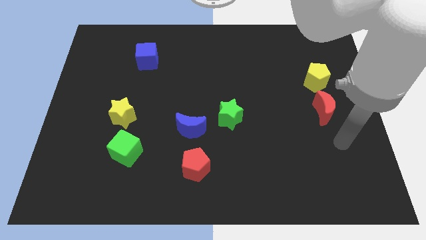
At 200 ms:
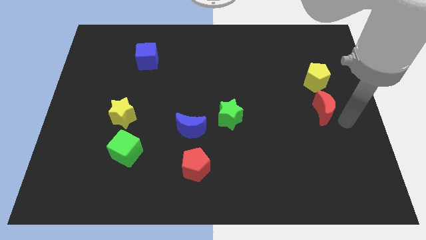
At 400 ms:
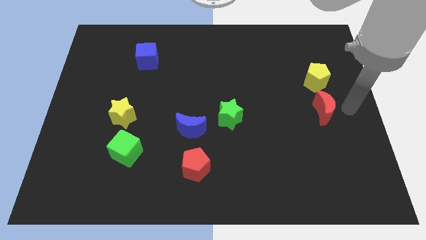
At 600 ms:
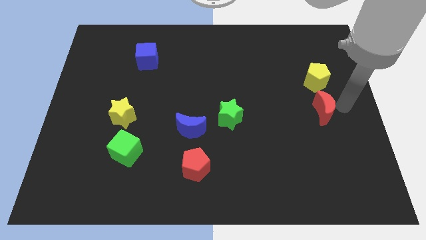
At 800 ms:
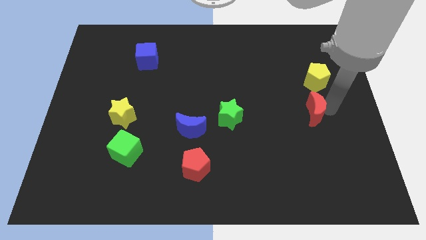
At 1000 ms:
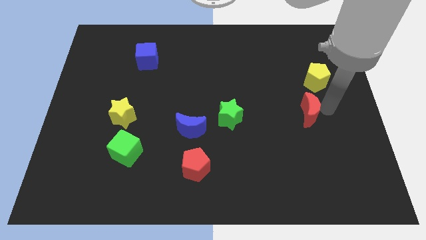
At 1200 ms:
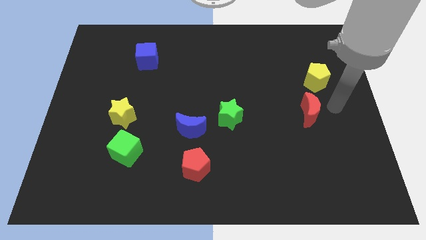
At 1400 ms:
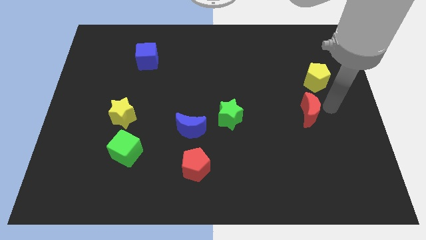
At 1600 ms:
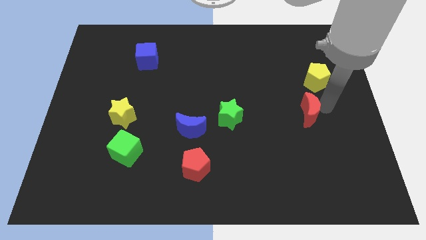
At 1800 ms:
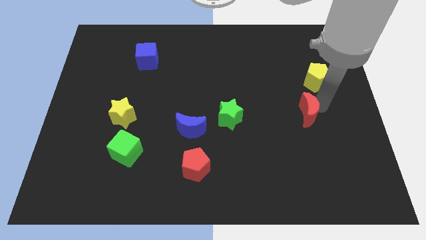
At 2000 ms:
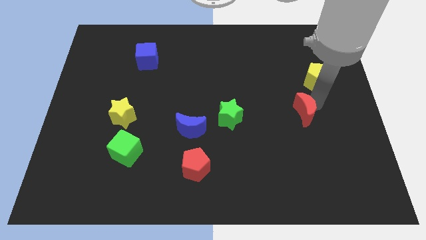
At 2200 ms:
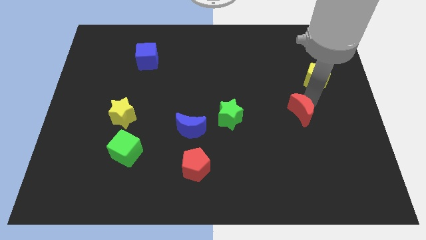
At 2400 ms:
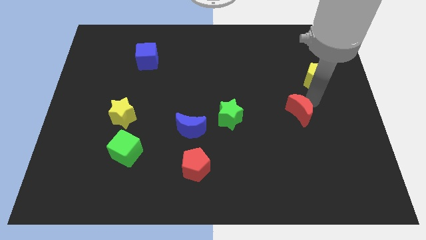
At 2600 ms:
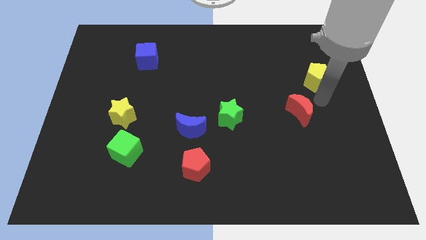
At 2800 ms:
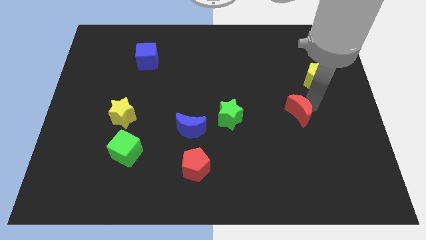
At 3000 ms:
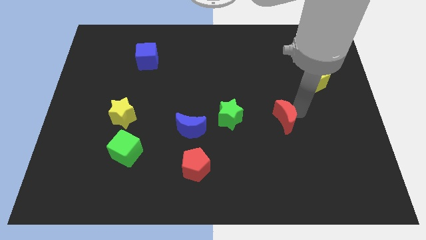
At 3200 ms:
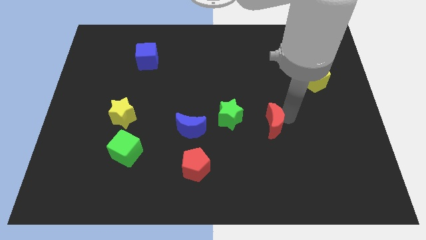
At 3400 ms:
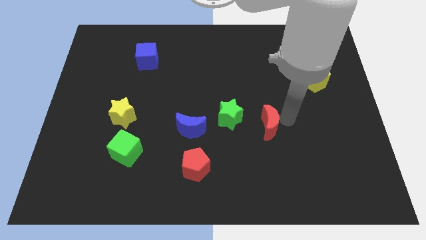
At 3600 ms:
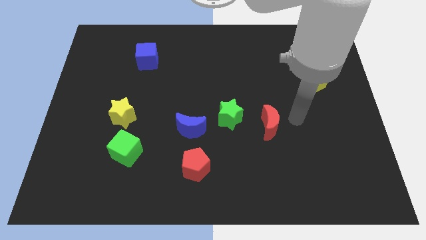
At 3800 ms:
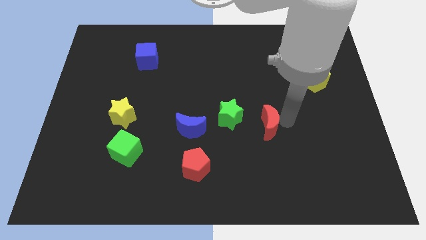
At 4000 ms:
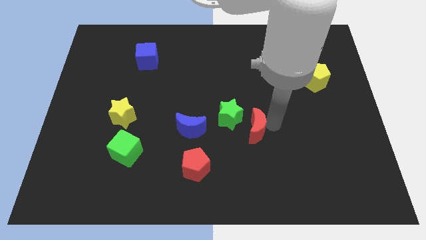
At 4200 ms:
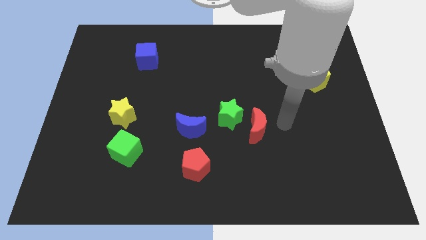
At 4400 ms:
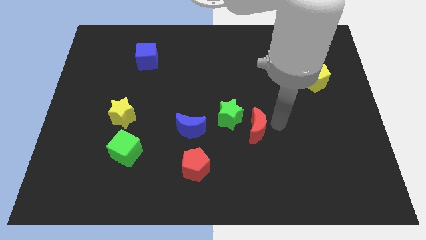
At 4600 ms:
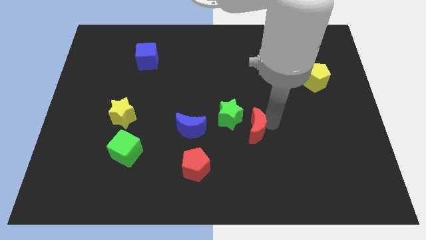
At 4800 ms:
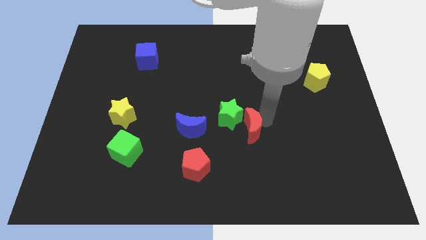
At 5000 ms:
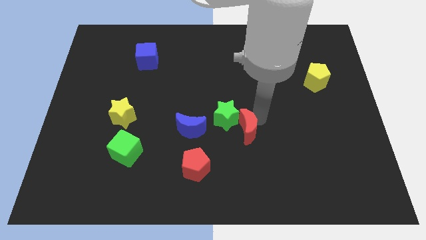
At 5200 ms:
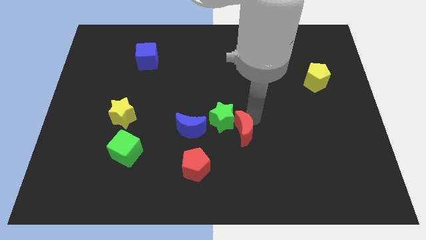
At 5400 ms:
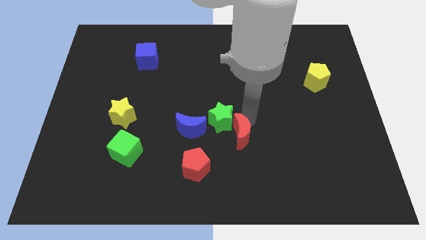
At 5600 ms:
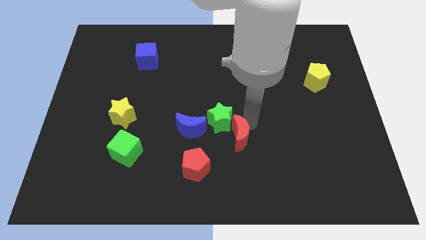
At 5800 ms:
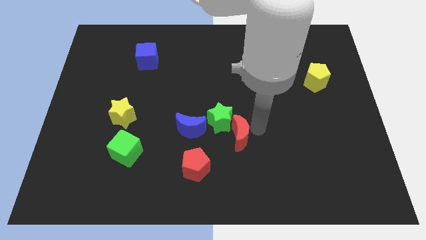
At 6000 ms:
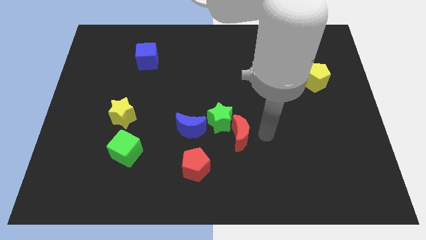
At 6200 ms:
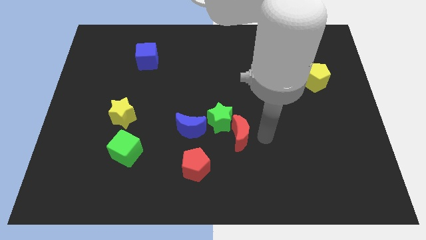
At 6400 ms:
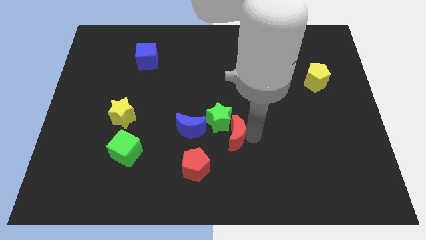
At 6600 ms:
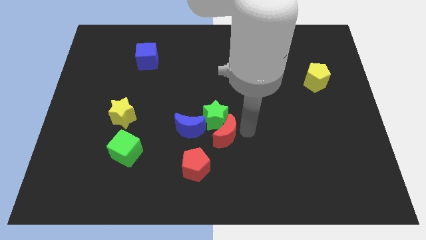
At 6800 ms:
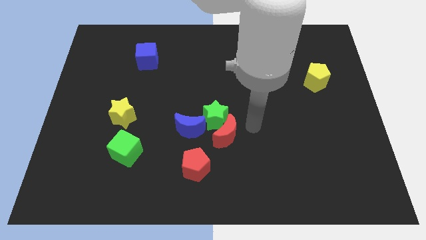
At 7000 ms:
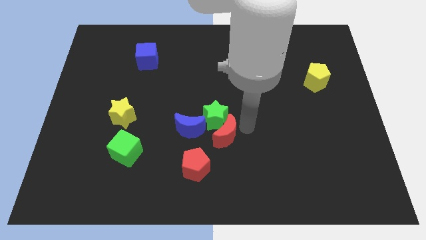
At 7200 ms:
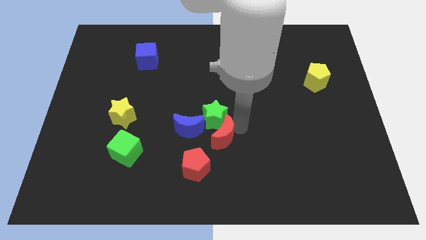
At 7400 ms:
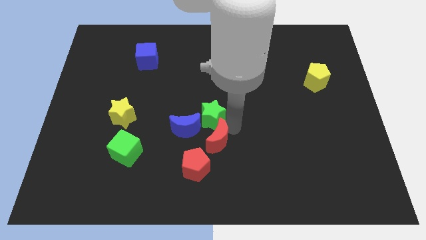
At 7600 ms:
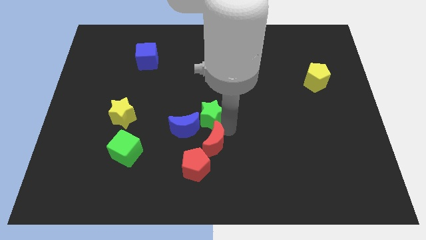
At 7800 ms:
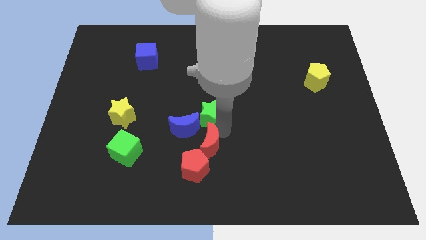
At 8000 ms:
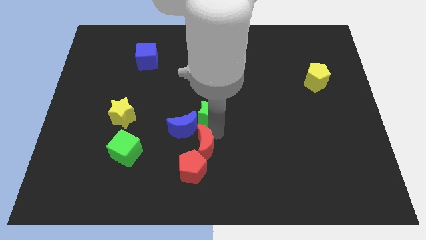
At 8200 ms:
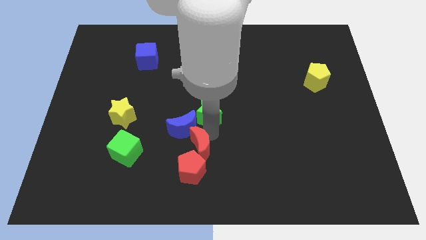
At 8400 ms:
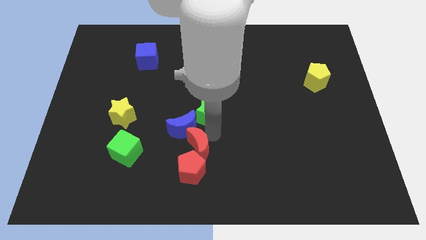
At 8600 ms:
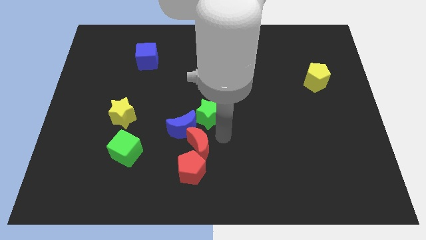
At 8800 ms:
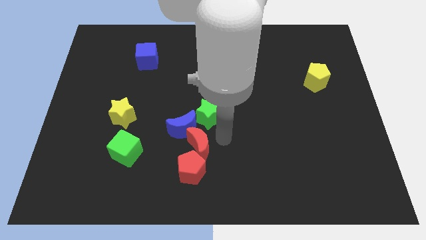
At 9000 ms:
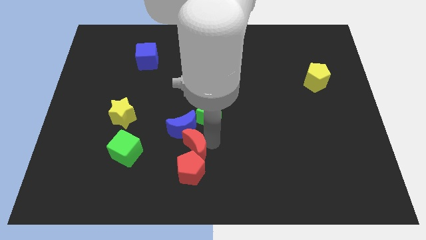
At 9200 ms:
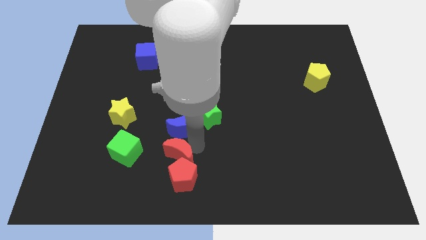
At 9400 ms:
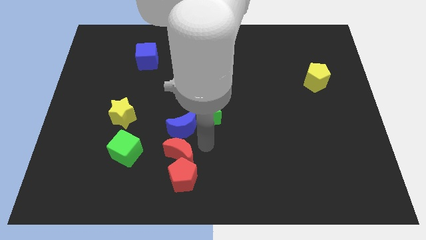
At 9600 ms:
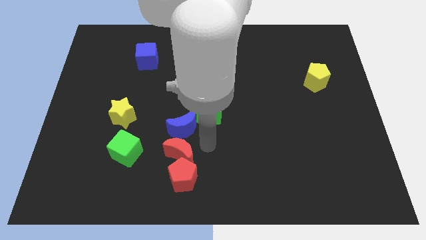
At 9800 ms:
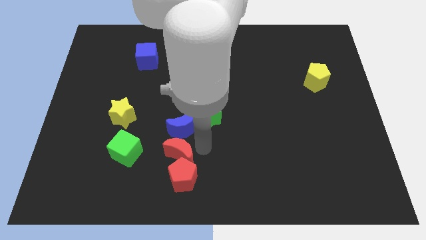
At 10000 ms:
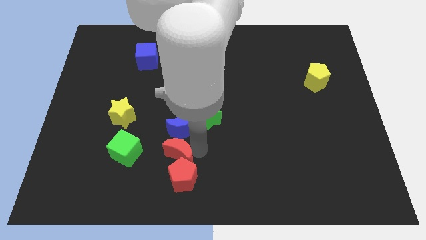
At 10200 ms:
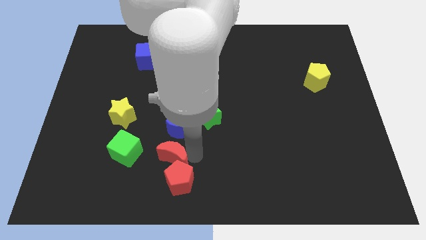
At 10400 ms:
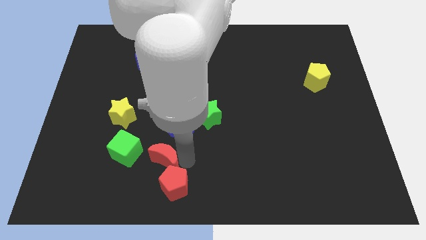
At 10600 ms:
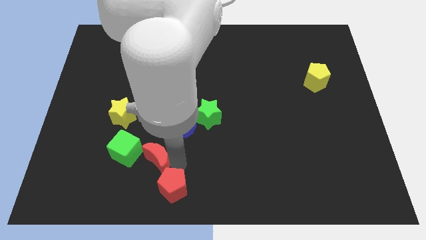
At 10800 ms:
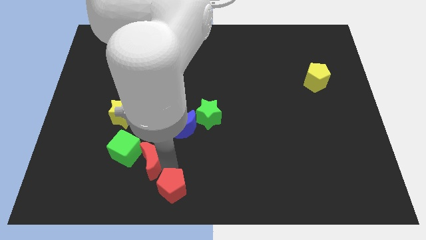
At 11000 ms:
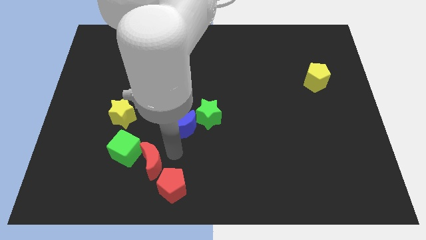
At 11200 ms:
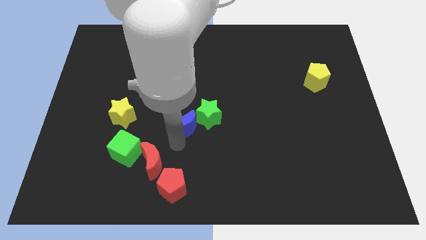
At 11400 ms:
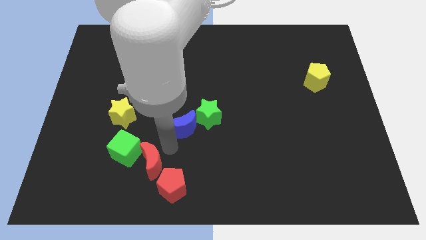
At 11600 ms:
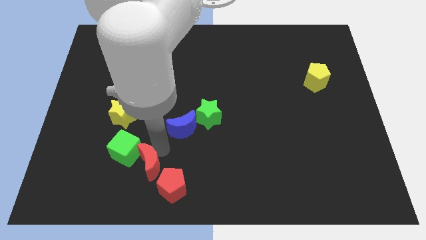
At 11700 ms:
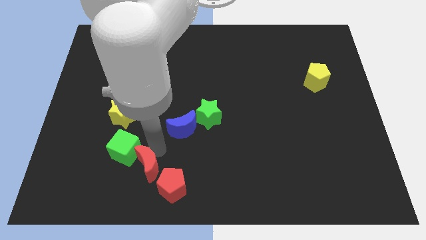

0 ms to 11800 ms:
put the red moon to the left side of the red pentagon

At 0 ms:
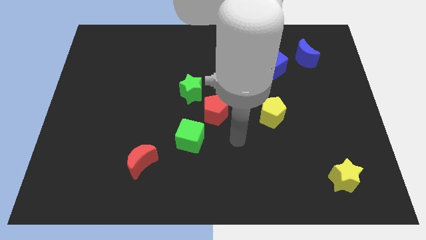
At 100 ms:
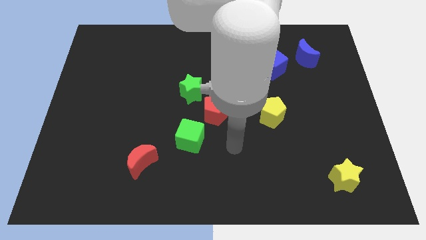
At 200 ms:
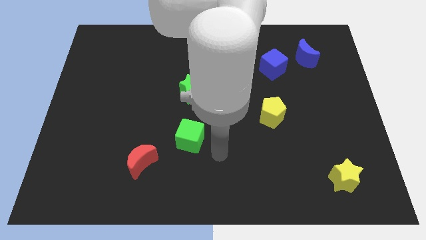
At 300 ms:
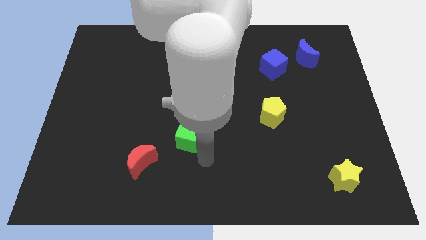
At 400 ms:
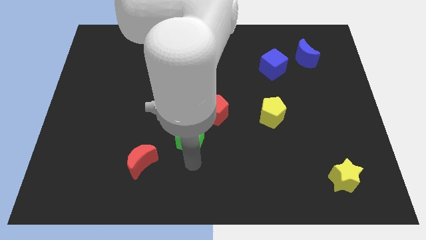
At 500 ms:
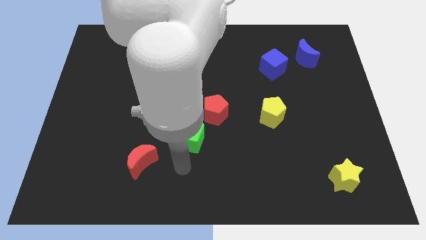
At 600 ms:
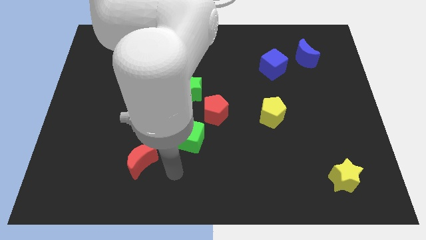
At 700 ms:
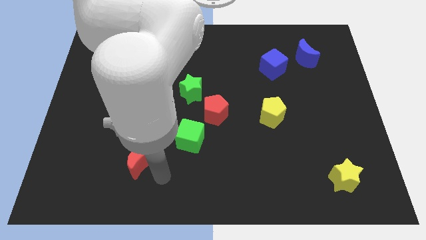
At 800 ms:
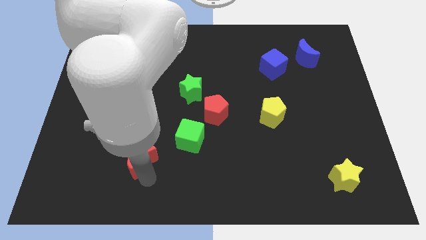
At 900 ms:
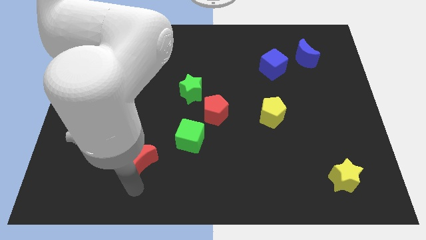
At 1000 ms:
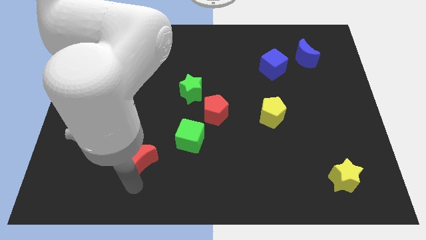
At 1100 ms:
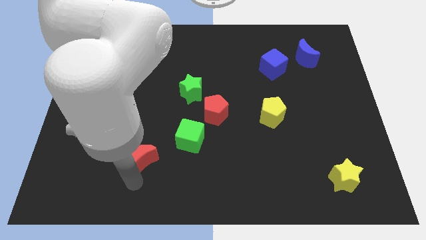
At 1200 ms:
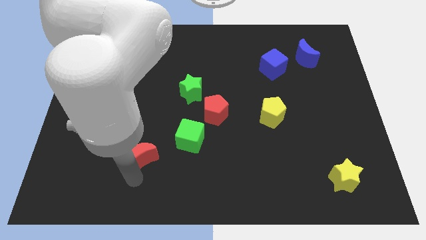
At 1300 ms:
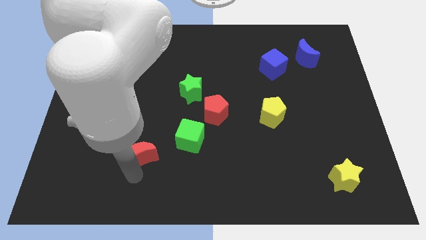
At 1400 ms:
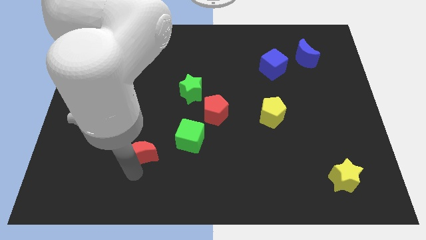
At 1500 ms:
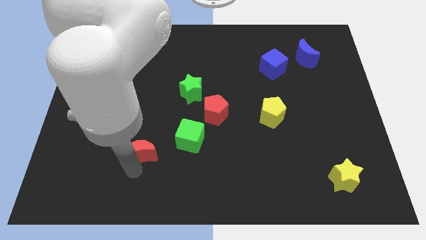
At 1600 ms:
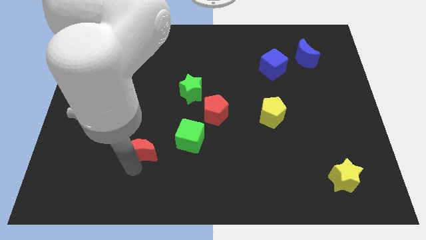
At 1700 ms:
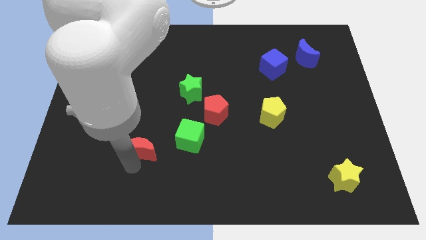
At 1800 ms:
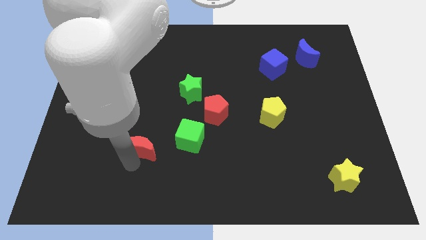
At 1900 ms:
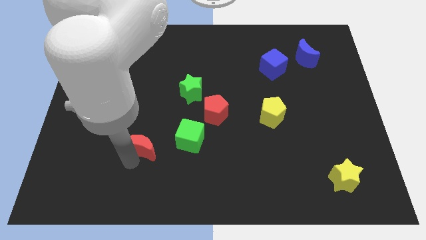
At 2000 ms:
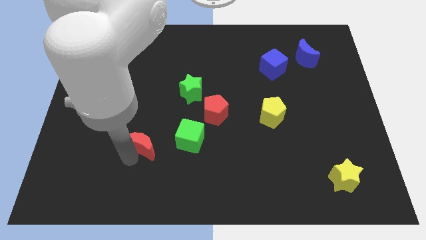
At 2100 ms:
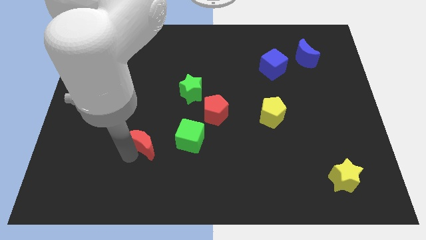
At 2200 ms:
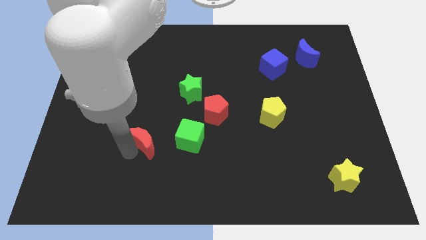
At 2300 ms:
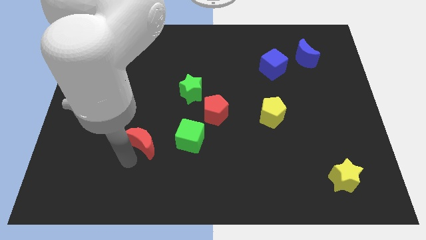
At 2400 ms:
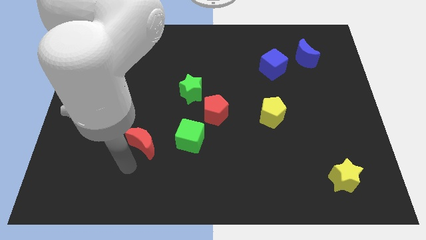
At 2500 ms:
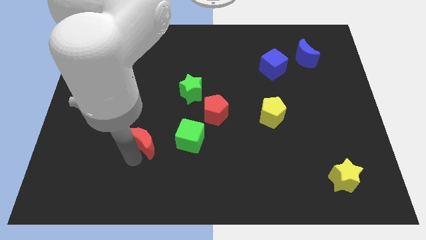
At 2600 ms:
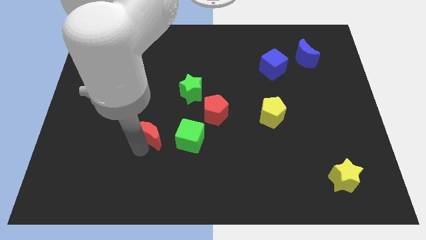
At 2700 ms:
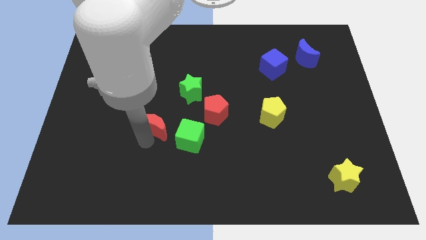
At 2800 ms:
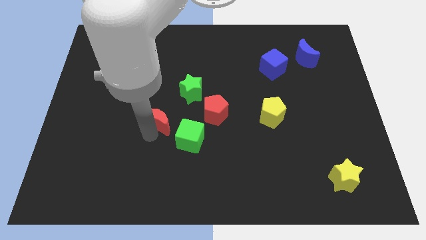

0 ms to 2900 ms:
push the red moon to the bottom left of the green star
